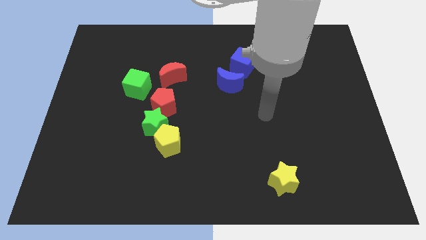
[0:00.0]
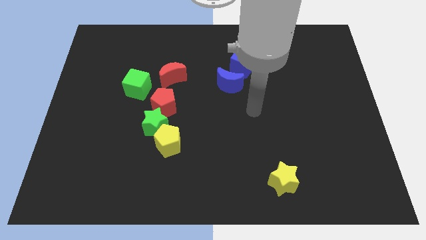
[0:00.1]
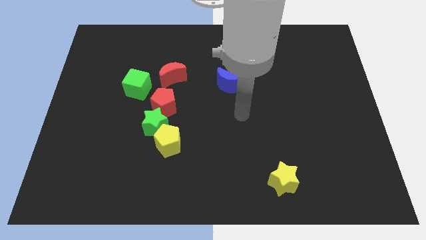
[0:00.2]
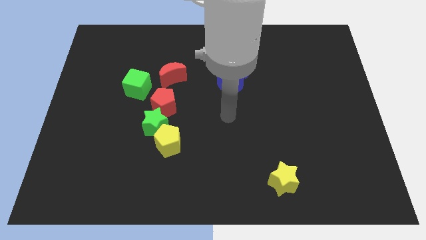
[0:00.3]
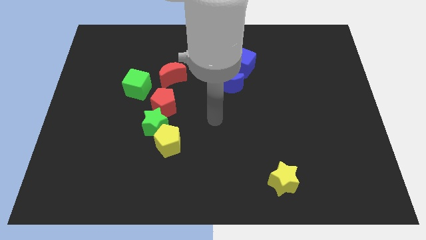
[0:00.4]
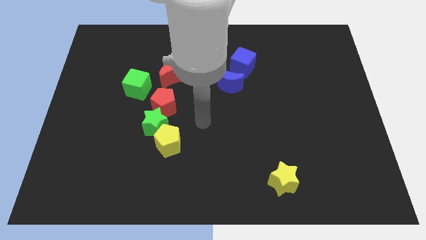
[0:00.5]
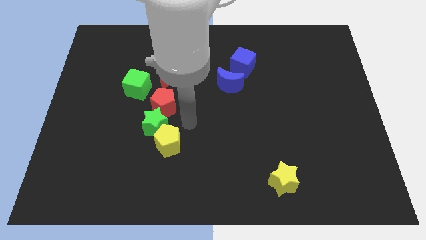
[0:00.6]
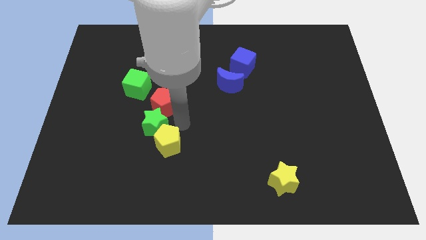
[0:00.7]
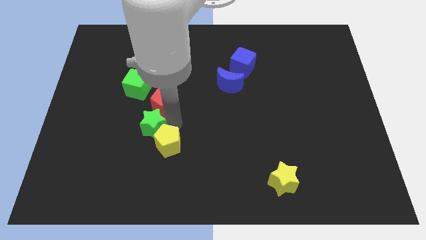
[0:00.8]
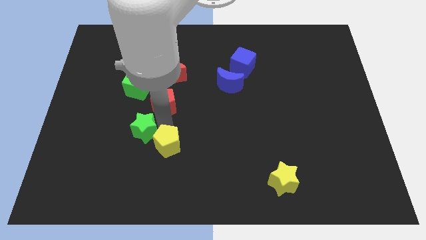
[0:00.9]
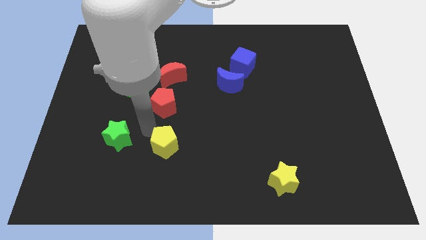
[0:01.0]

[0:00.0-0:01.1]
move the yellow pentagon away from the green star

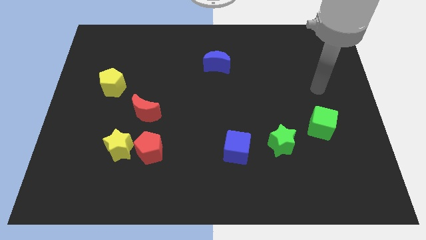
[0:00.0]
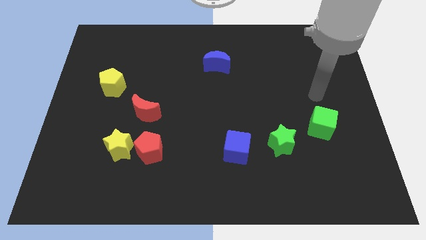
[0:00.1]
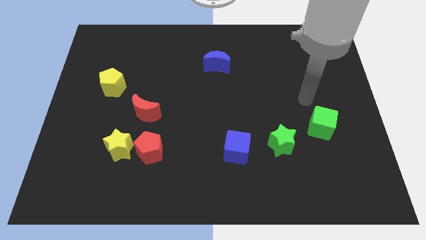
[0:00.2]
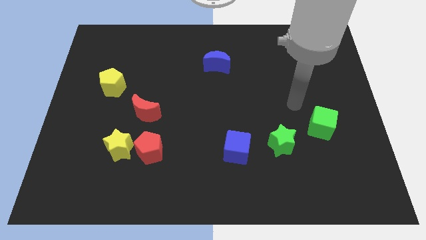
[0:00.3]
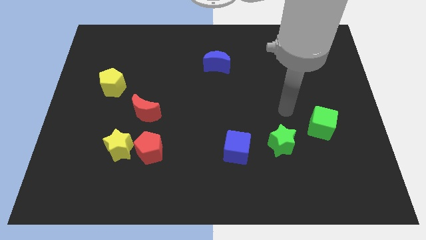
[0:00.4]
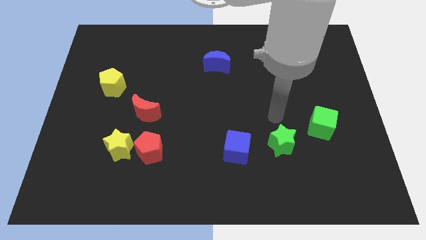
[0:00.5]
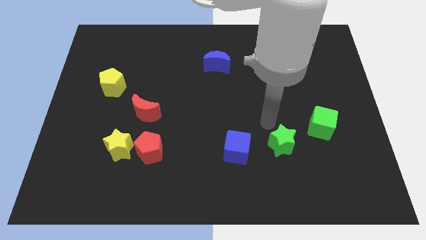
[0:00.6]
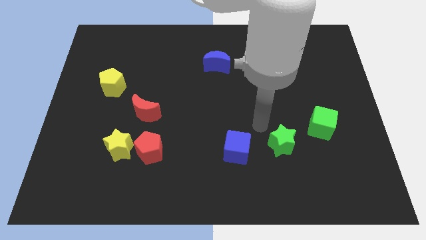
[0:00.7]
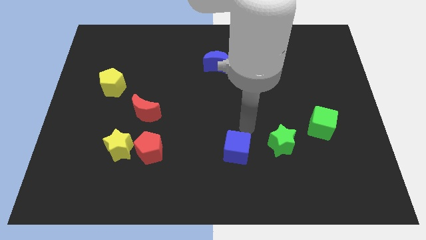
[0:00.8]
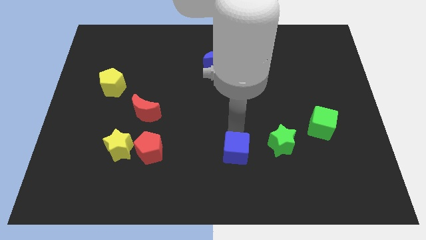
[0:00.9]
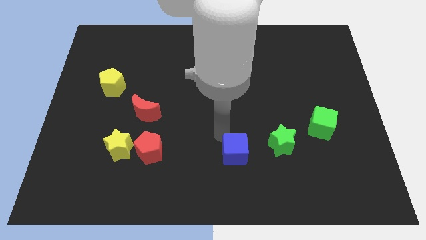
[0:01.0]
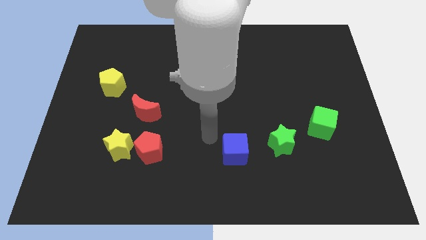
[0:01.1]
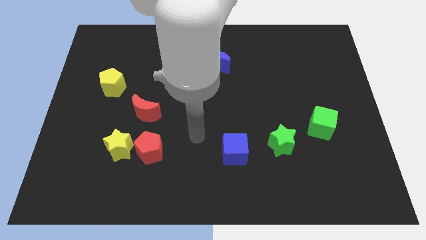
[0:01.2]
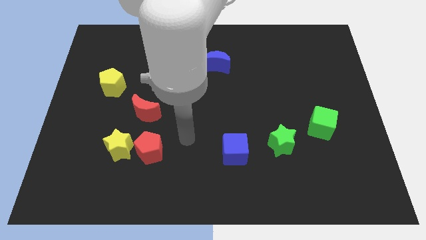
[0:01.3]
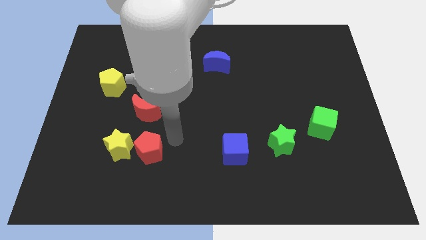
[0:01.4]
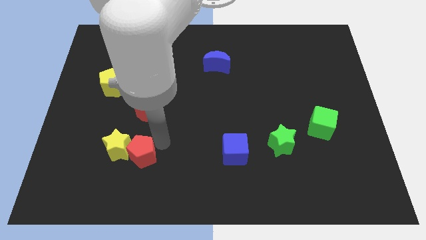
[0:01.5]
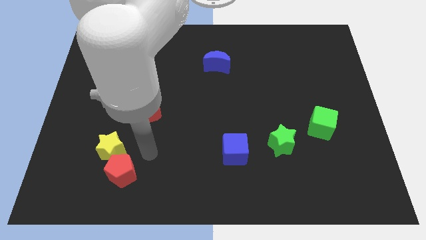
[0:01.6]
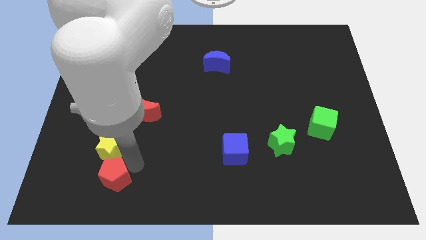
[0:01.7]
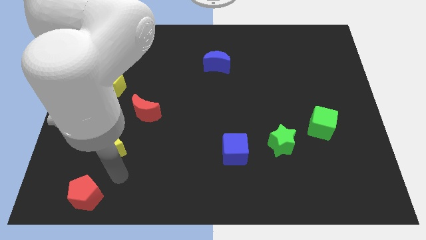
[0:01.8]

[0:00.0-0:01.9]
move the yellow star away from the red pentagon

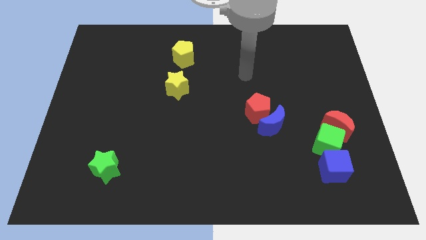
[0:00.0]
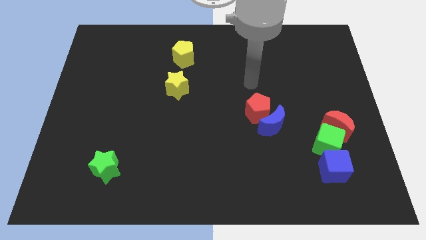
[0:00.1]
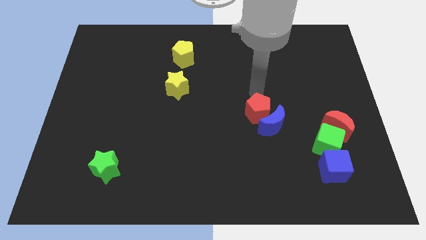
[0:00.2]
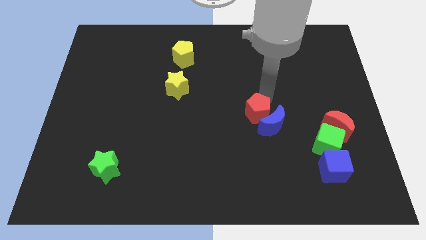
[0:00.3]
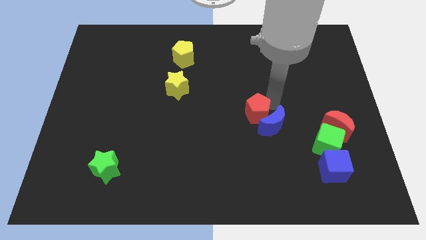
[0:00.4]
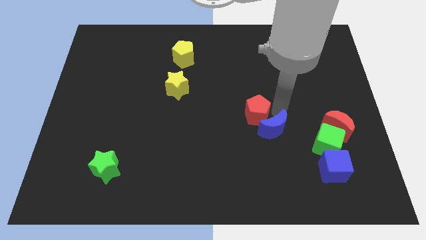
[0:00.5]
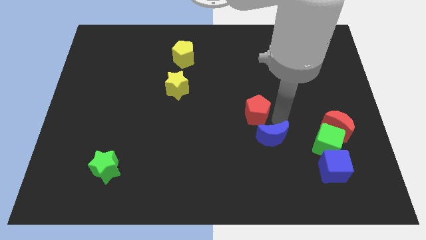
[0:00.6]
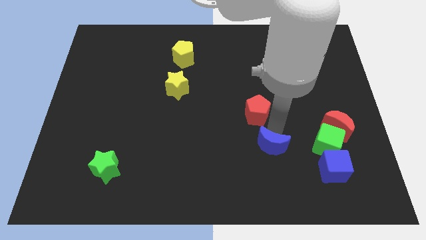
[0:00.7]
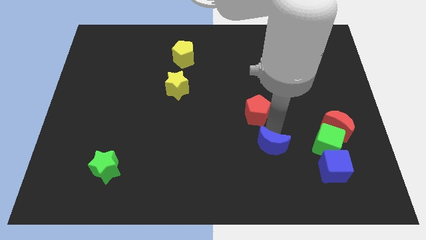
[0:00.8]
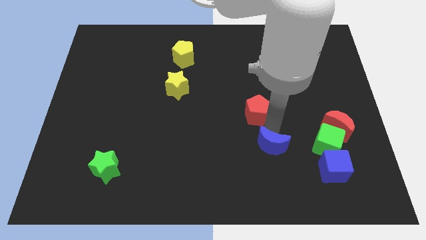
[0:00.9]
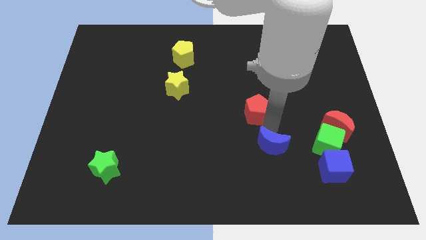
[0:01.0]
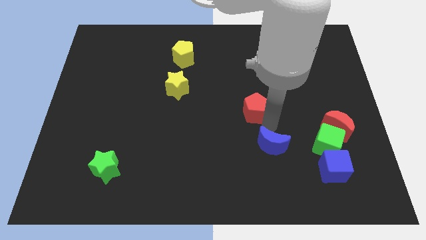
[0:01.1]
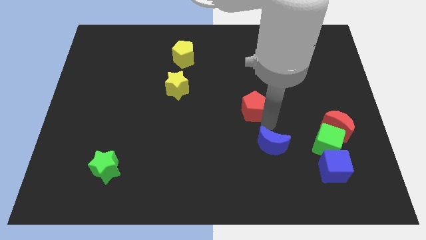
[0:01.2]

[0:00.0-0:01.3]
pull the red pentagon apart from the blue moon

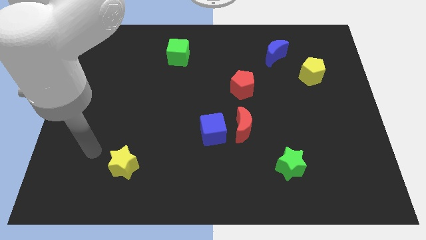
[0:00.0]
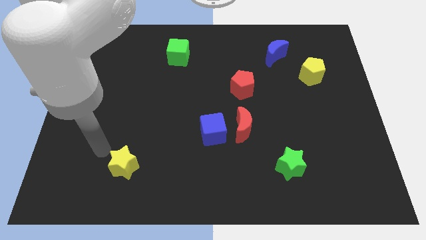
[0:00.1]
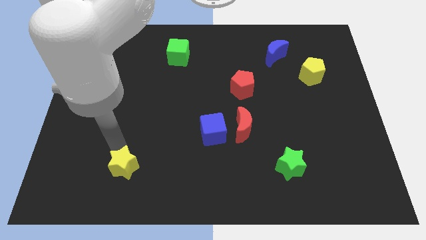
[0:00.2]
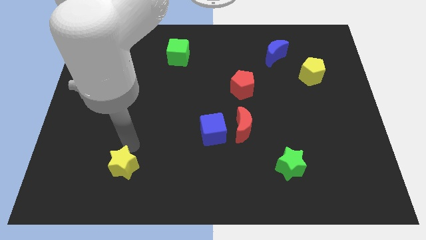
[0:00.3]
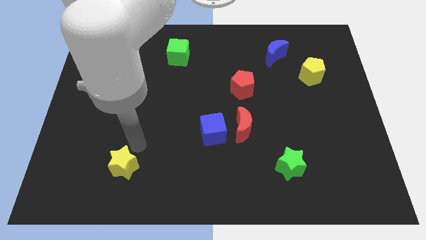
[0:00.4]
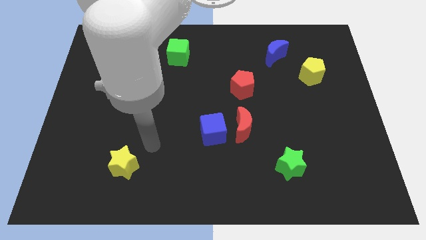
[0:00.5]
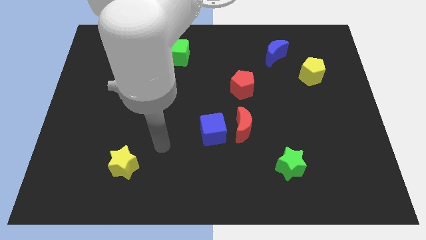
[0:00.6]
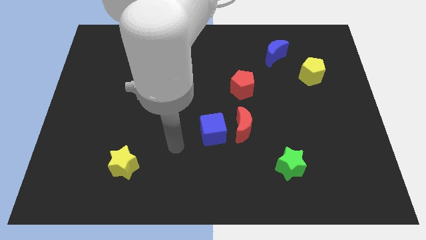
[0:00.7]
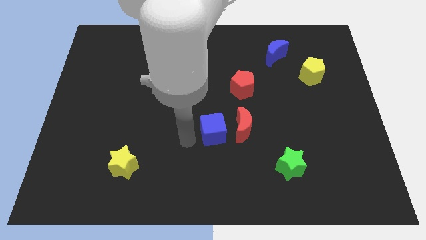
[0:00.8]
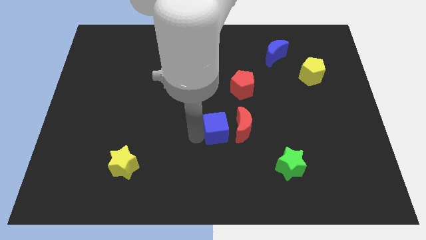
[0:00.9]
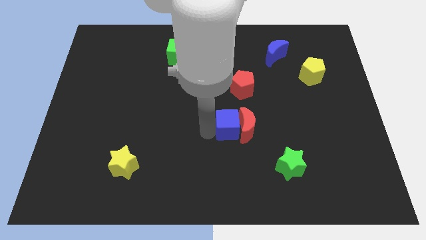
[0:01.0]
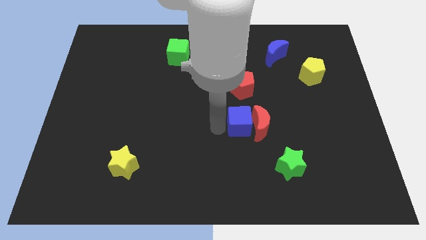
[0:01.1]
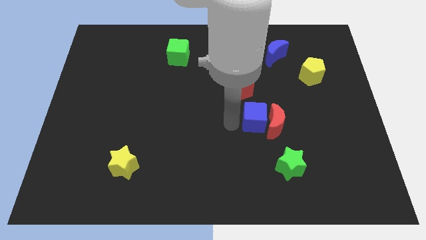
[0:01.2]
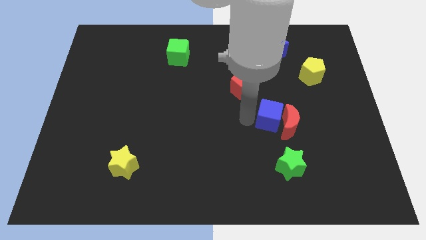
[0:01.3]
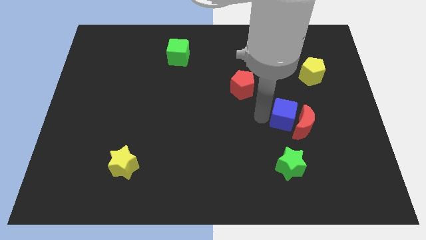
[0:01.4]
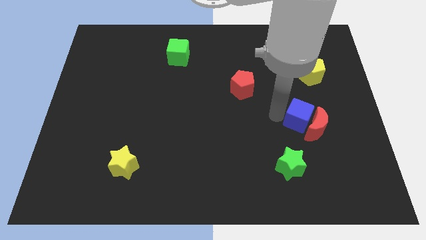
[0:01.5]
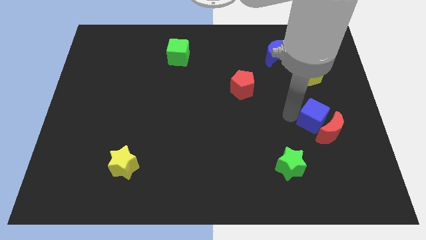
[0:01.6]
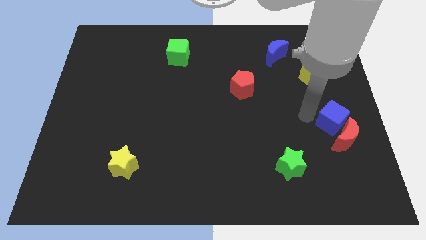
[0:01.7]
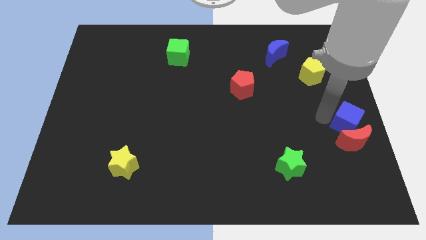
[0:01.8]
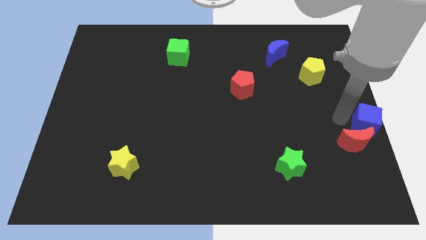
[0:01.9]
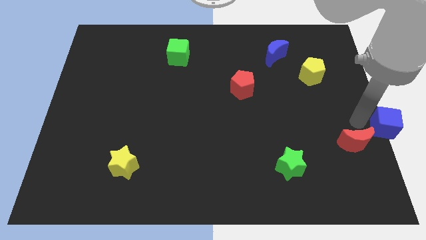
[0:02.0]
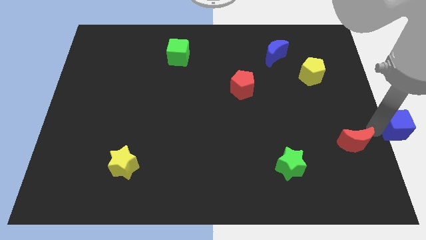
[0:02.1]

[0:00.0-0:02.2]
move the red moon away from the blue cube

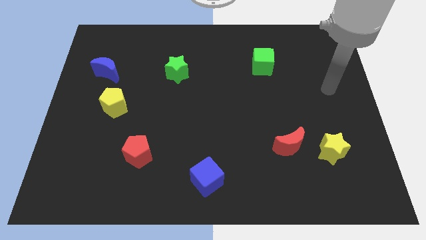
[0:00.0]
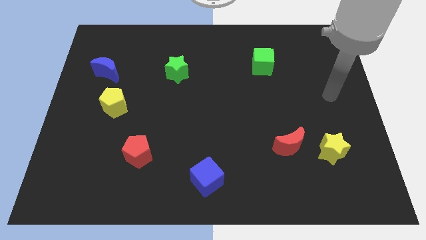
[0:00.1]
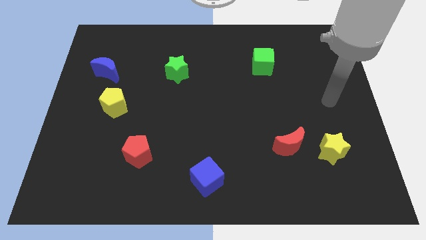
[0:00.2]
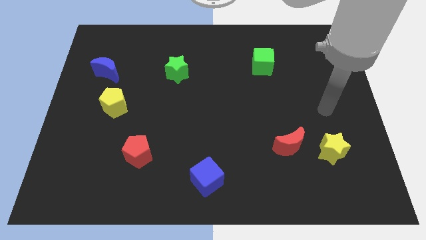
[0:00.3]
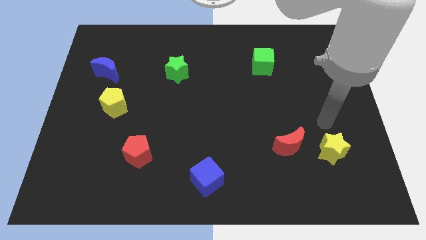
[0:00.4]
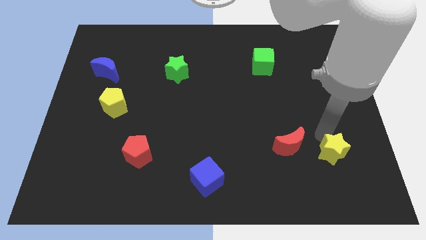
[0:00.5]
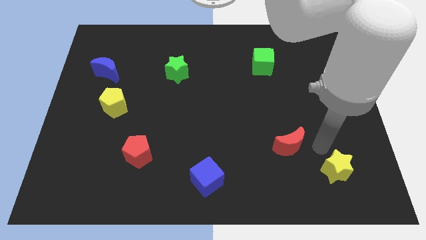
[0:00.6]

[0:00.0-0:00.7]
separate the red moon from the yellow star

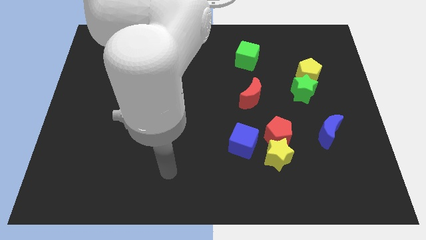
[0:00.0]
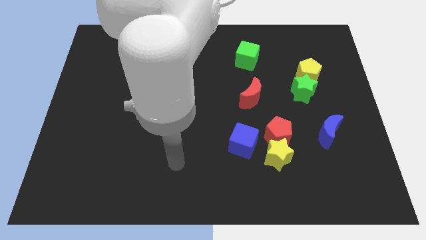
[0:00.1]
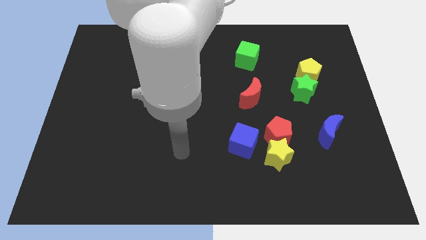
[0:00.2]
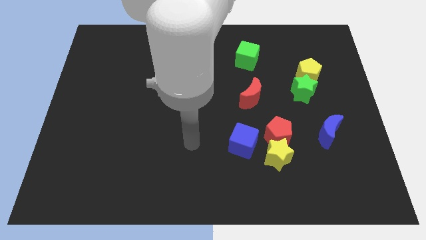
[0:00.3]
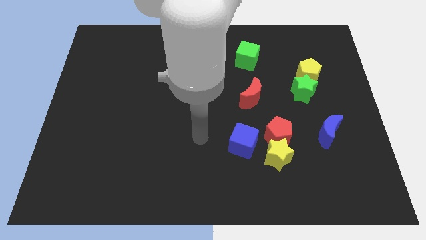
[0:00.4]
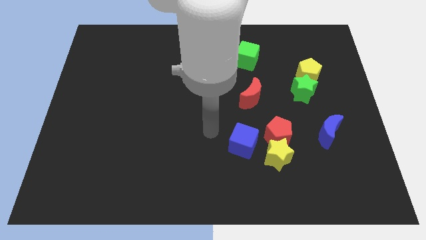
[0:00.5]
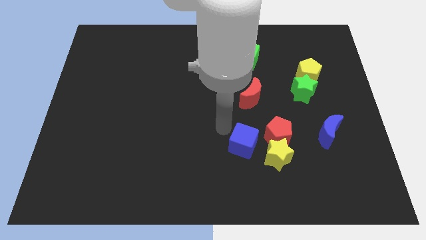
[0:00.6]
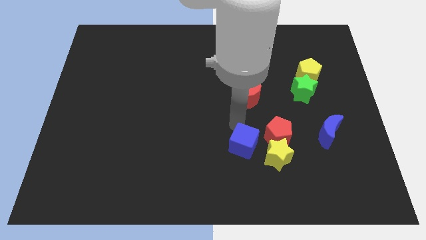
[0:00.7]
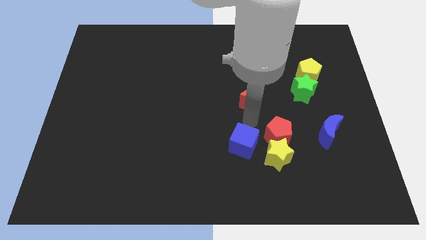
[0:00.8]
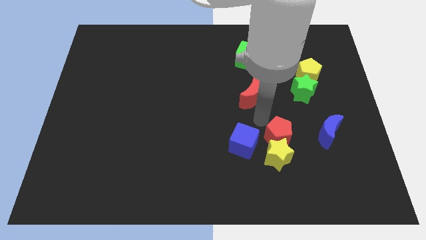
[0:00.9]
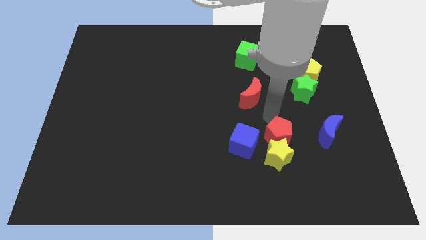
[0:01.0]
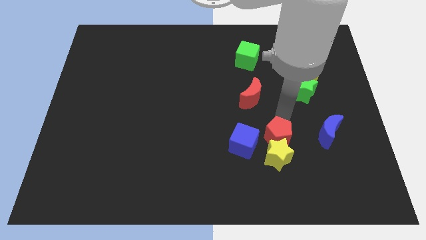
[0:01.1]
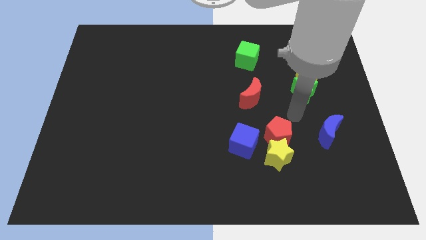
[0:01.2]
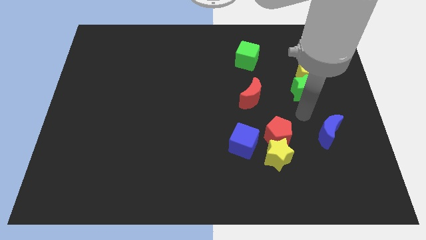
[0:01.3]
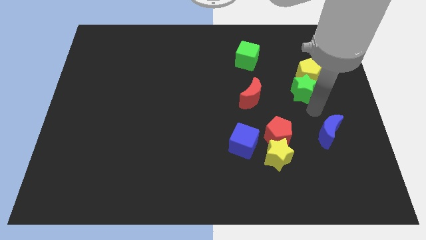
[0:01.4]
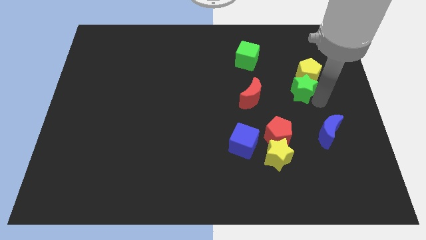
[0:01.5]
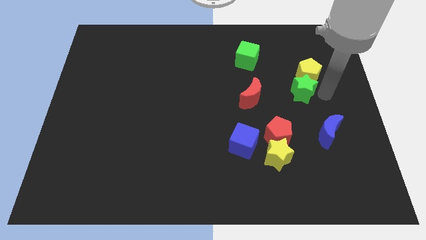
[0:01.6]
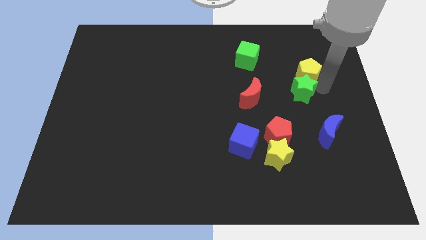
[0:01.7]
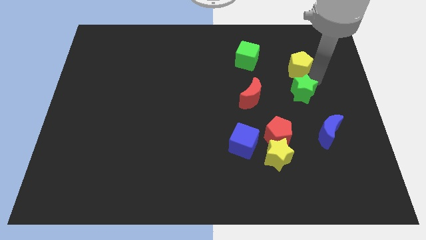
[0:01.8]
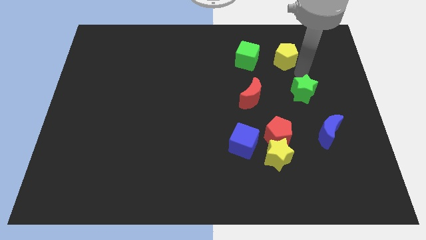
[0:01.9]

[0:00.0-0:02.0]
separate the green star from the yellow pentagon
